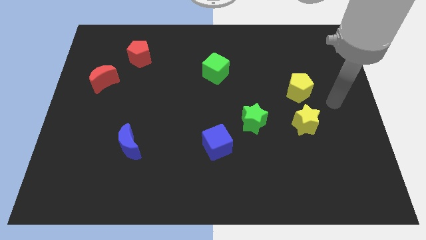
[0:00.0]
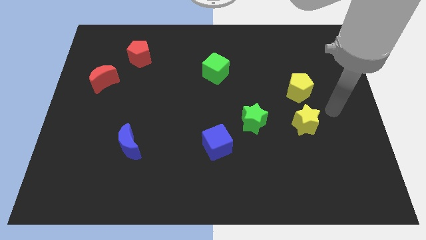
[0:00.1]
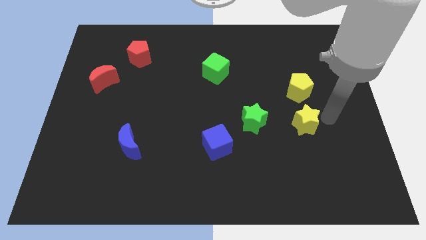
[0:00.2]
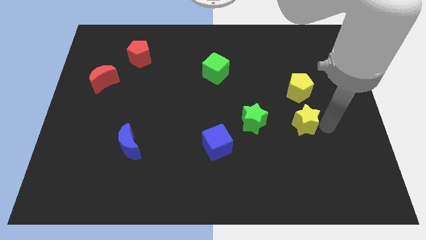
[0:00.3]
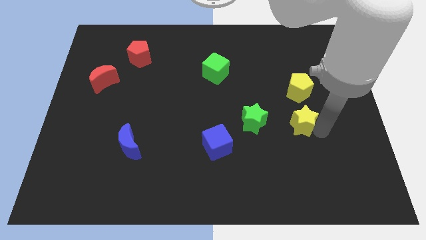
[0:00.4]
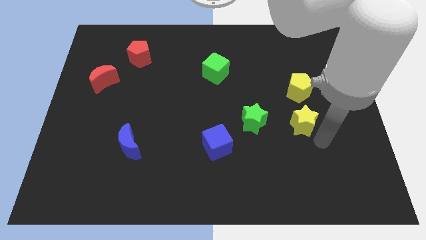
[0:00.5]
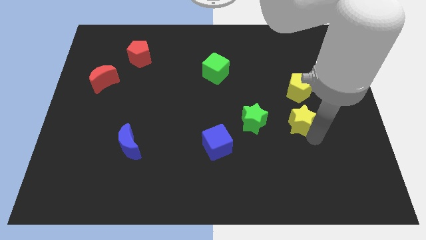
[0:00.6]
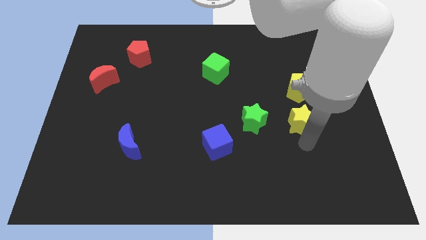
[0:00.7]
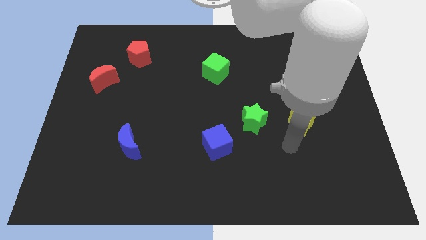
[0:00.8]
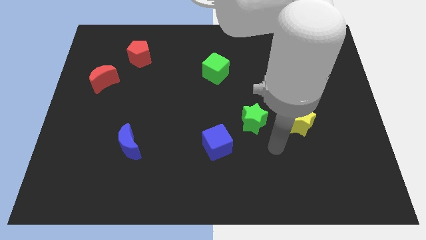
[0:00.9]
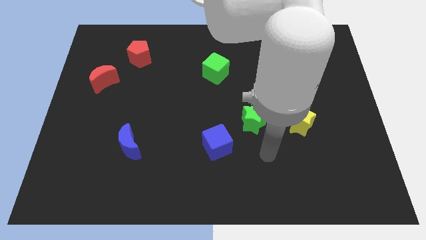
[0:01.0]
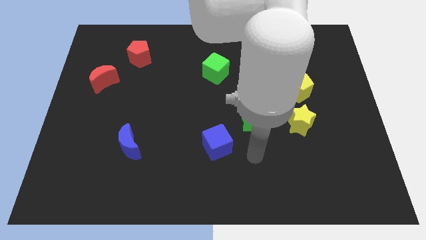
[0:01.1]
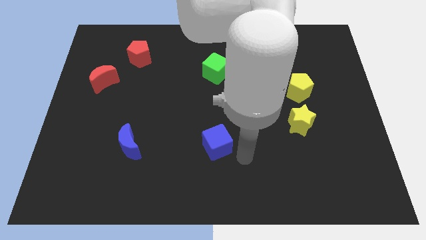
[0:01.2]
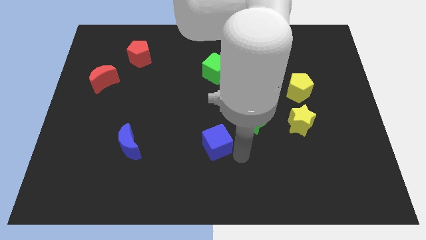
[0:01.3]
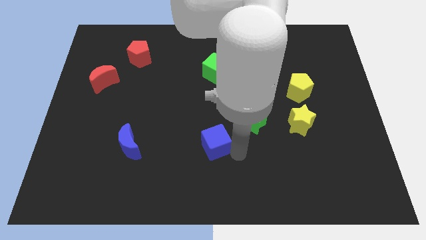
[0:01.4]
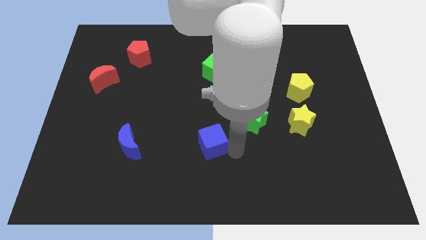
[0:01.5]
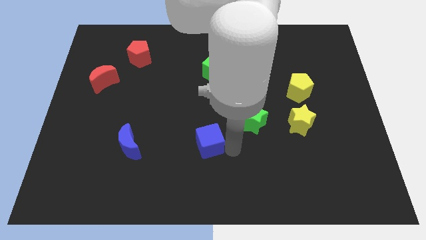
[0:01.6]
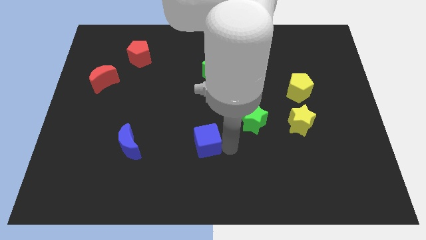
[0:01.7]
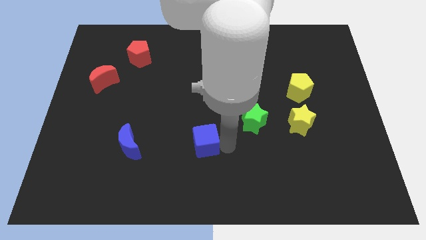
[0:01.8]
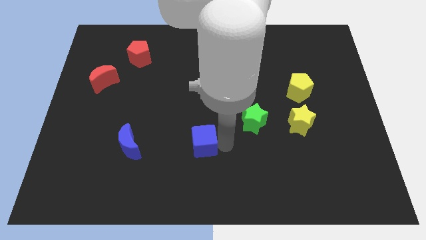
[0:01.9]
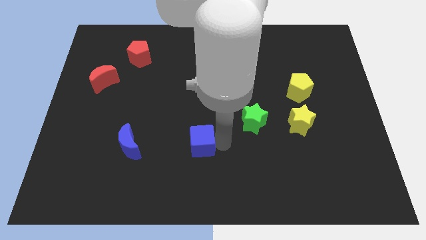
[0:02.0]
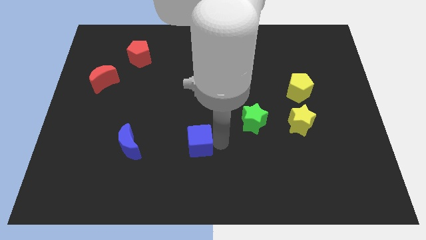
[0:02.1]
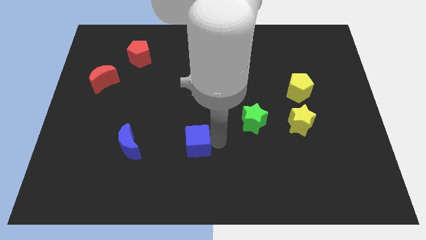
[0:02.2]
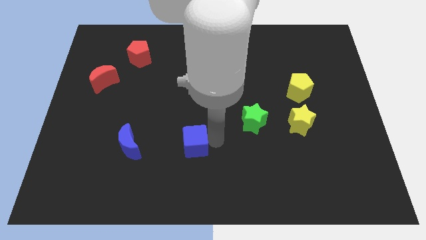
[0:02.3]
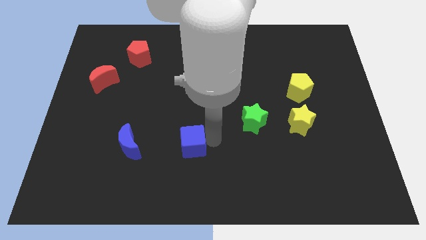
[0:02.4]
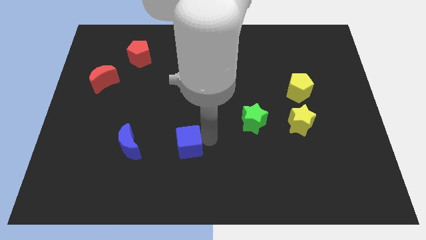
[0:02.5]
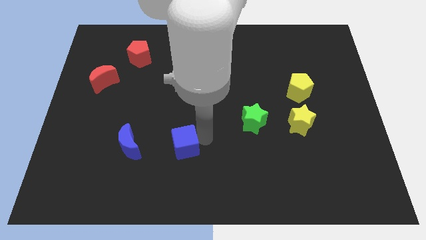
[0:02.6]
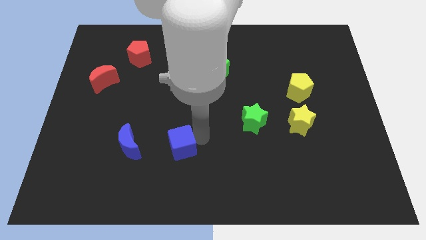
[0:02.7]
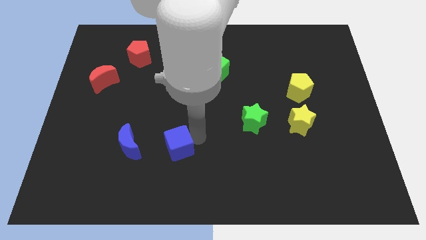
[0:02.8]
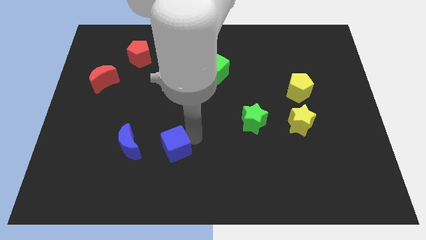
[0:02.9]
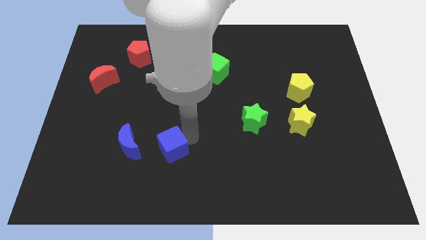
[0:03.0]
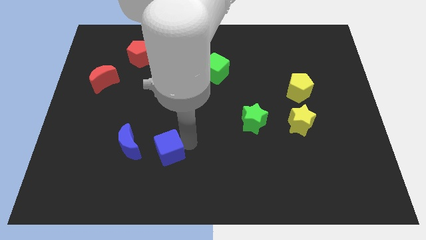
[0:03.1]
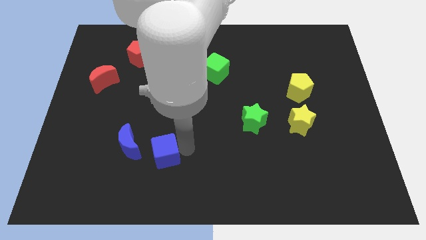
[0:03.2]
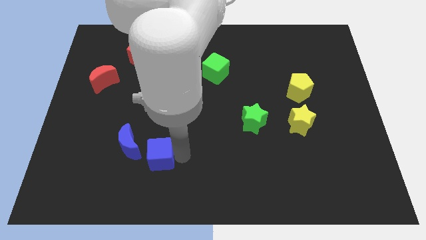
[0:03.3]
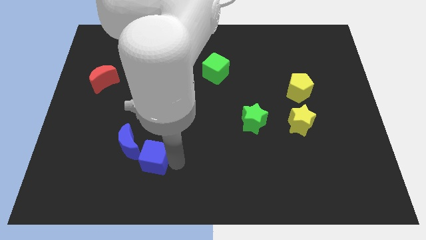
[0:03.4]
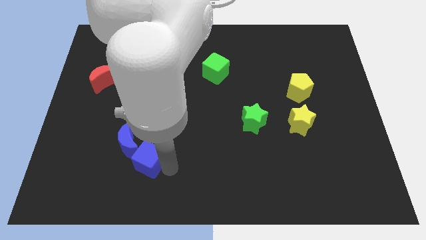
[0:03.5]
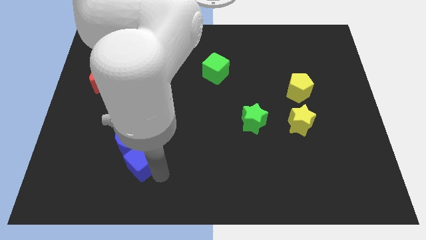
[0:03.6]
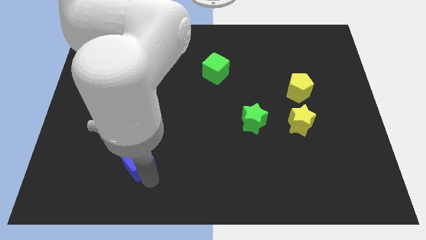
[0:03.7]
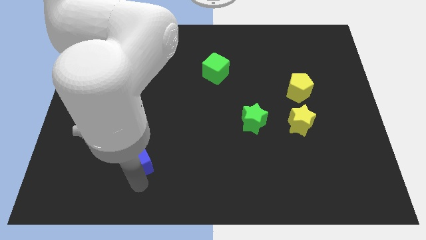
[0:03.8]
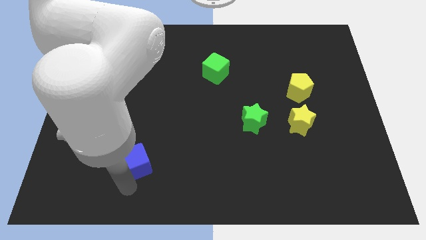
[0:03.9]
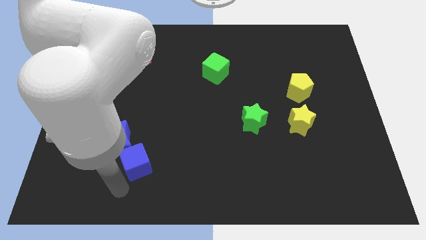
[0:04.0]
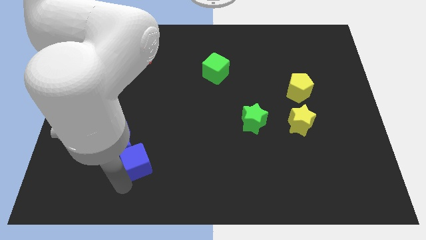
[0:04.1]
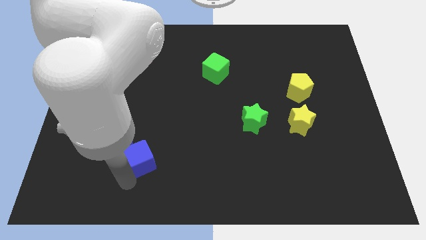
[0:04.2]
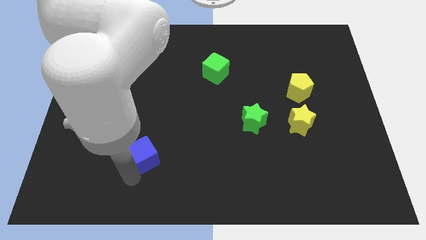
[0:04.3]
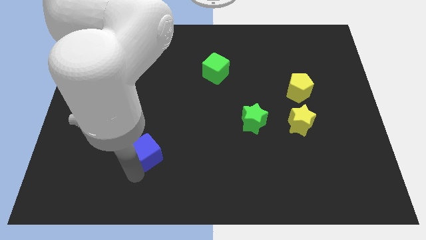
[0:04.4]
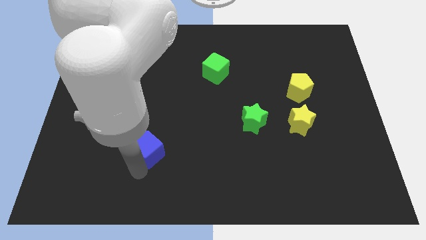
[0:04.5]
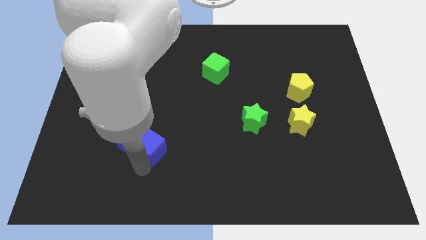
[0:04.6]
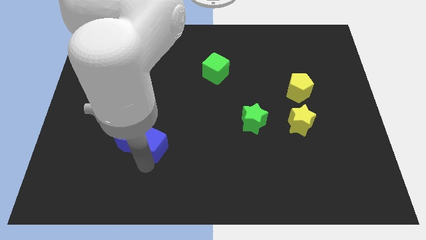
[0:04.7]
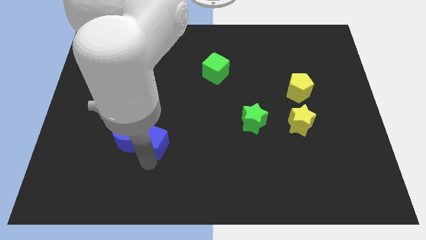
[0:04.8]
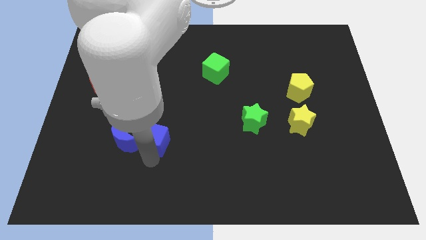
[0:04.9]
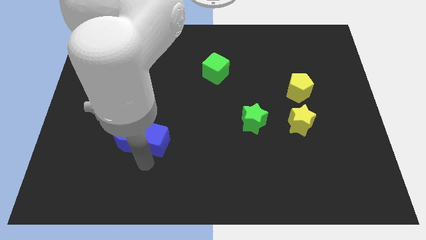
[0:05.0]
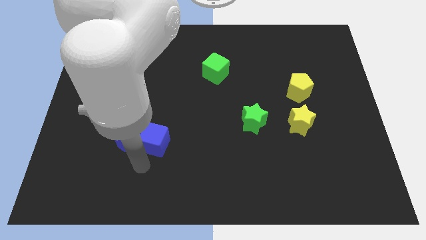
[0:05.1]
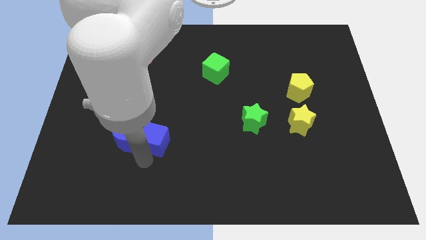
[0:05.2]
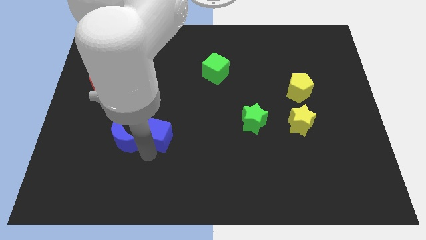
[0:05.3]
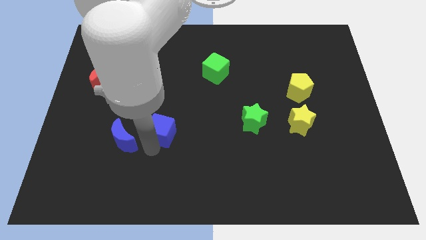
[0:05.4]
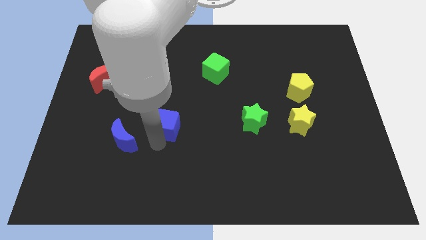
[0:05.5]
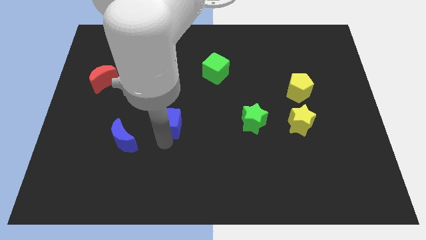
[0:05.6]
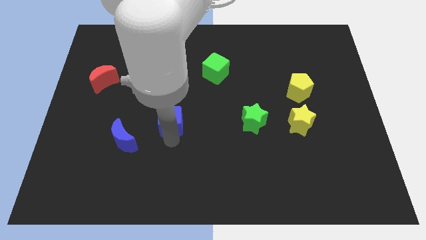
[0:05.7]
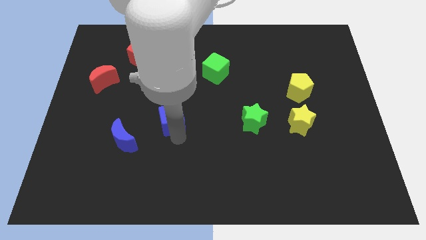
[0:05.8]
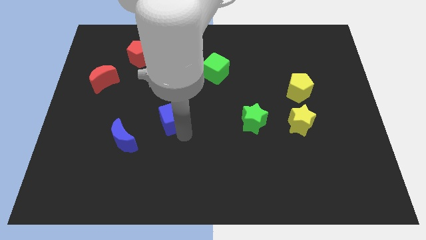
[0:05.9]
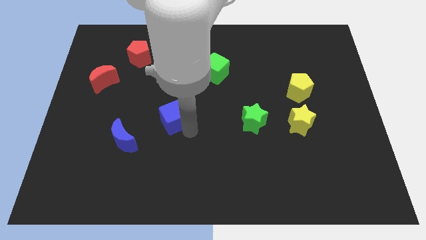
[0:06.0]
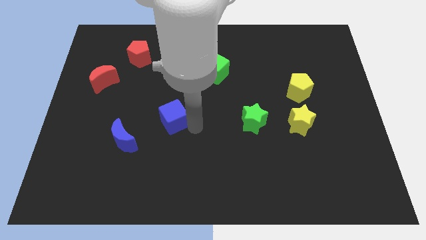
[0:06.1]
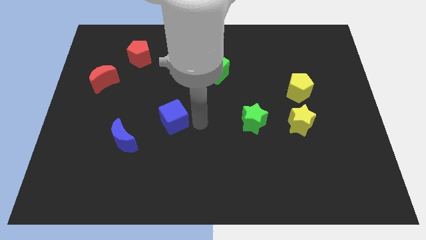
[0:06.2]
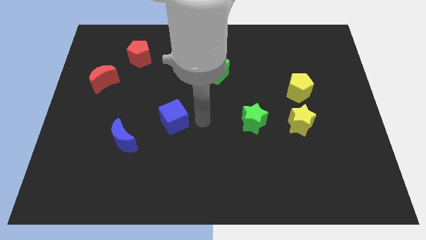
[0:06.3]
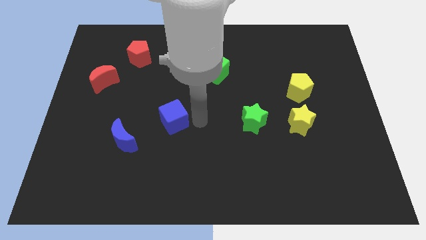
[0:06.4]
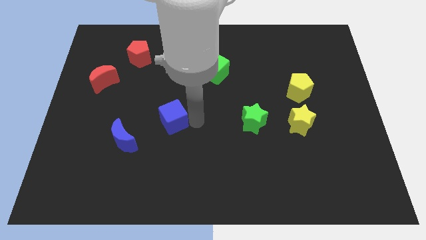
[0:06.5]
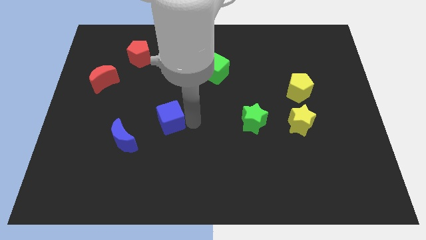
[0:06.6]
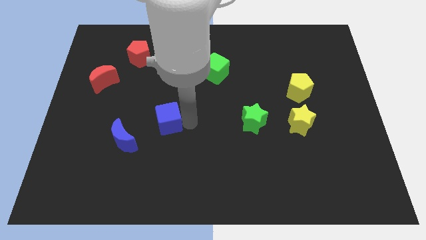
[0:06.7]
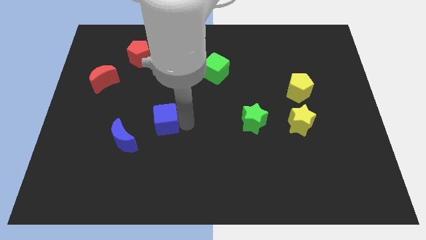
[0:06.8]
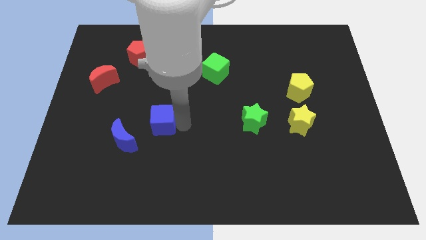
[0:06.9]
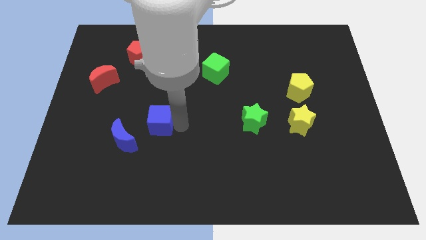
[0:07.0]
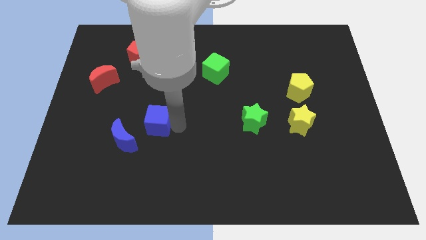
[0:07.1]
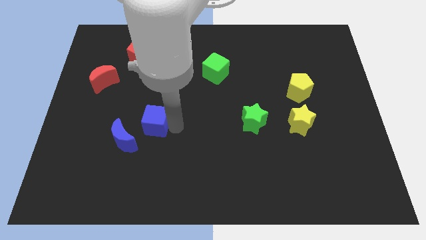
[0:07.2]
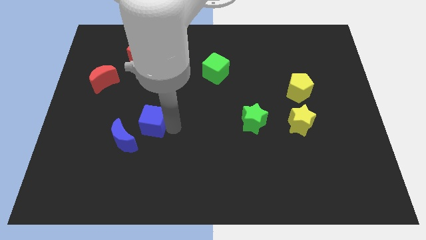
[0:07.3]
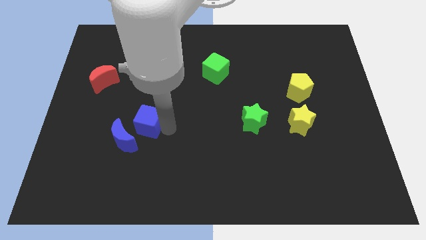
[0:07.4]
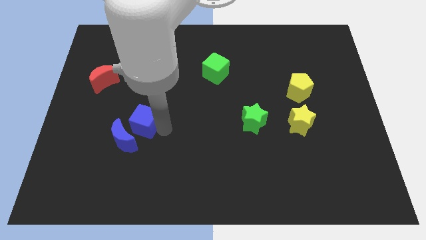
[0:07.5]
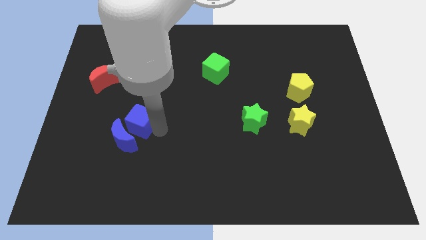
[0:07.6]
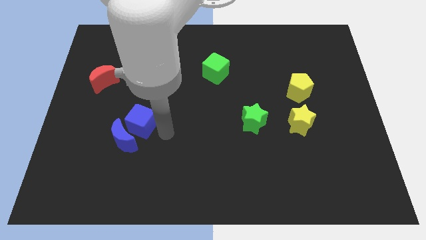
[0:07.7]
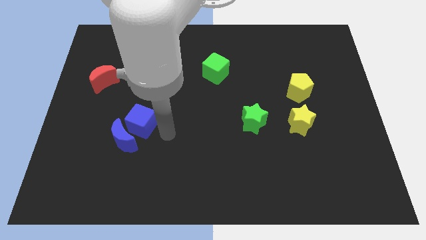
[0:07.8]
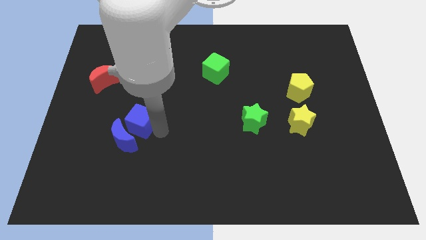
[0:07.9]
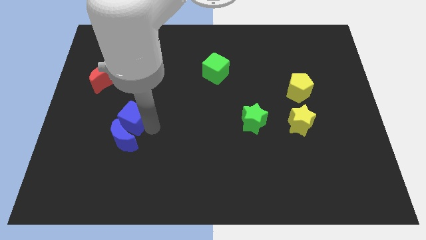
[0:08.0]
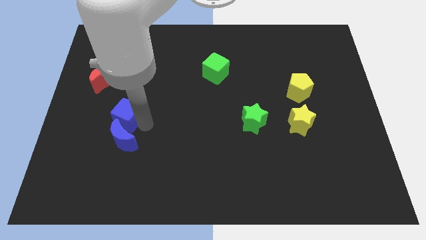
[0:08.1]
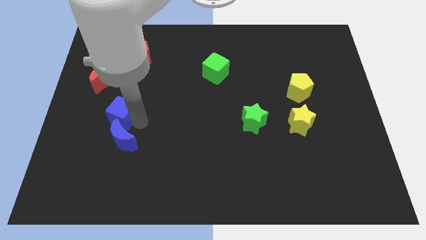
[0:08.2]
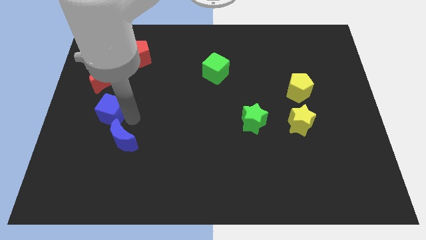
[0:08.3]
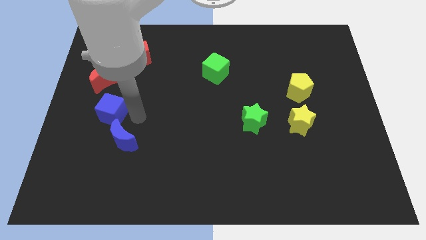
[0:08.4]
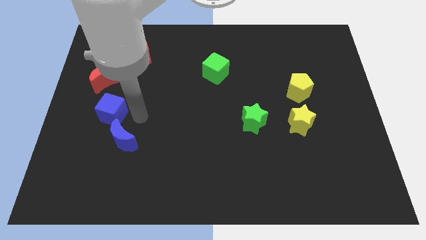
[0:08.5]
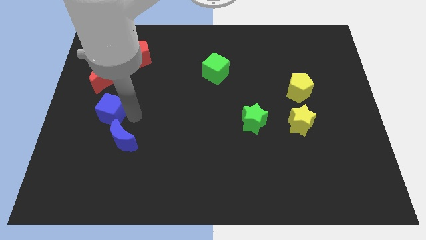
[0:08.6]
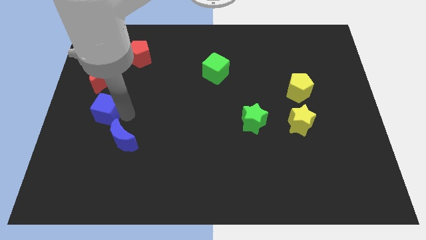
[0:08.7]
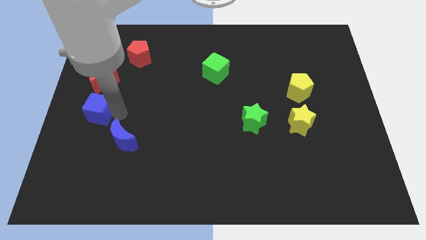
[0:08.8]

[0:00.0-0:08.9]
move the blue cube to the center left
